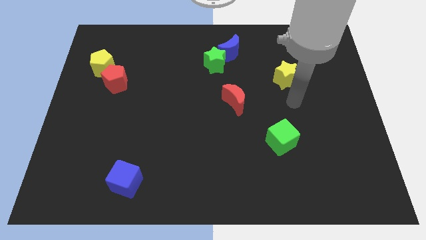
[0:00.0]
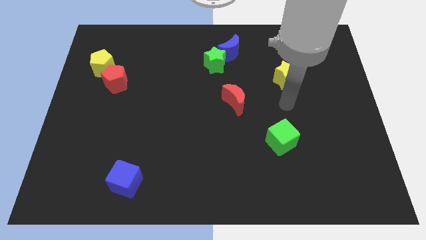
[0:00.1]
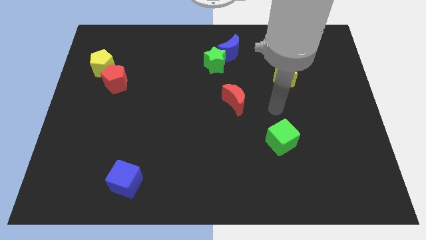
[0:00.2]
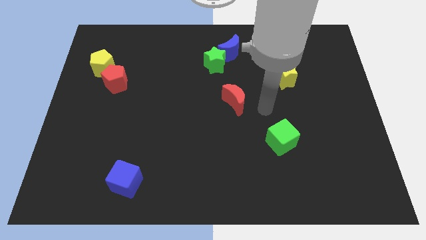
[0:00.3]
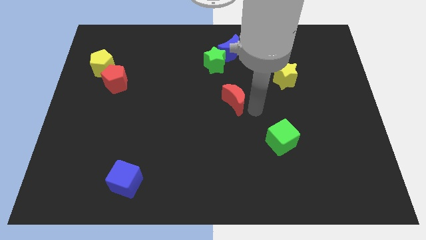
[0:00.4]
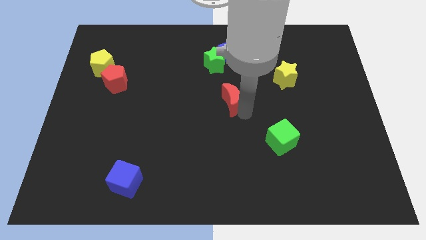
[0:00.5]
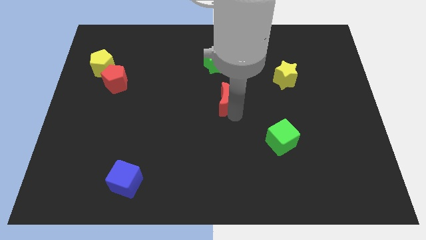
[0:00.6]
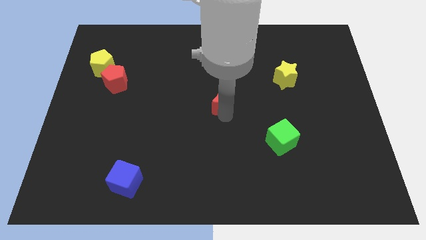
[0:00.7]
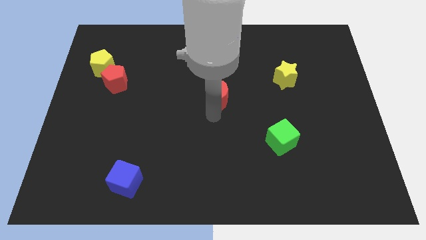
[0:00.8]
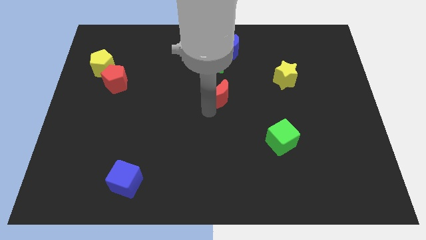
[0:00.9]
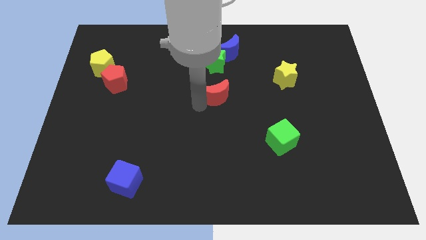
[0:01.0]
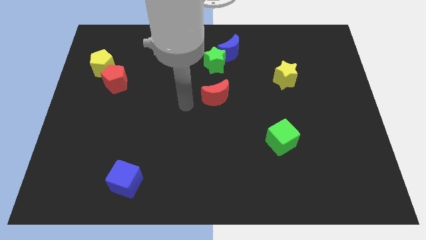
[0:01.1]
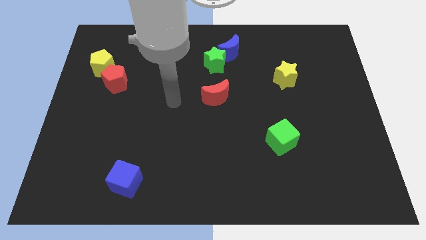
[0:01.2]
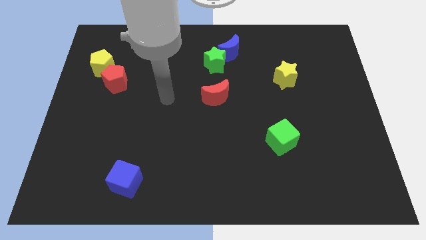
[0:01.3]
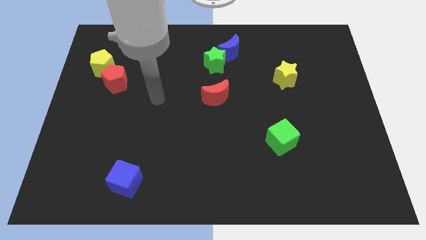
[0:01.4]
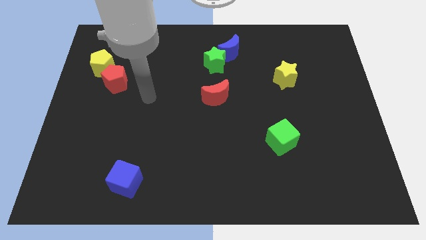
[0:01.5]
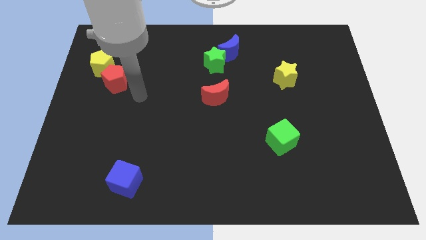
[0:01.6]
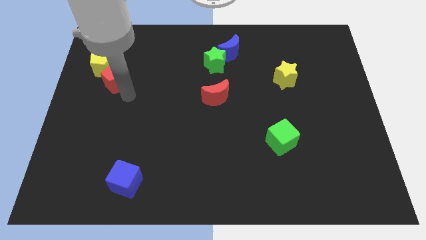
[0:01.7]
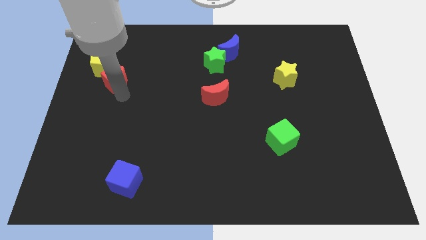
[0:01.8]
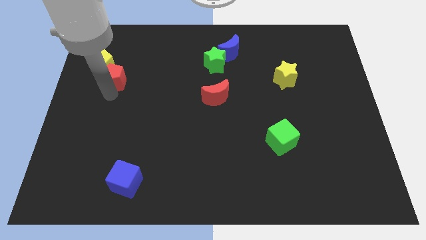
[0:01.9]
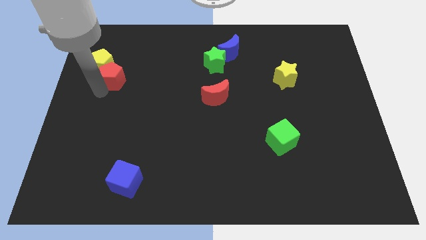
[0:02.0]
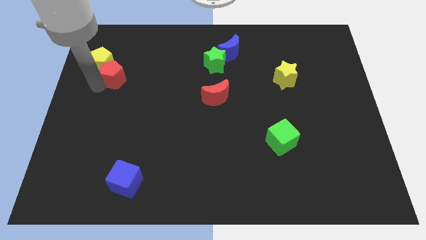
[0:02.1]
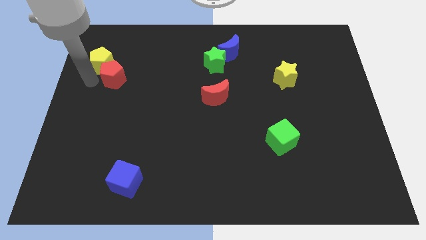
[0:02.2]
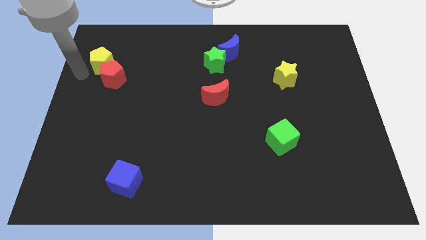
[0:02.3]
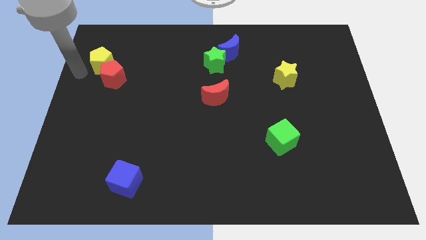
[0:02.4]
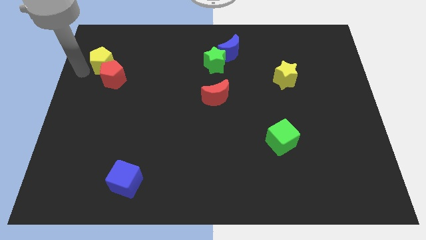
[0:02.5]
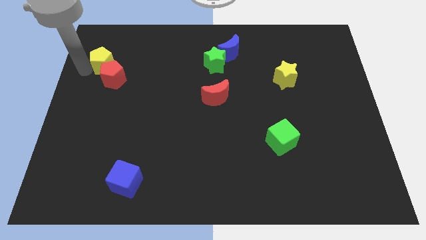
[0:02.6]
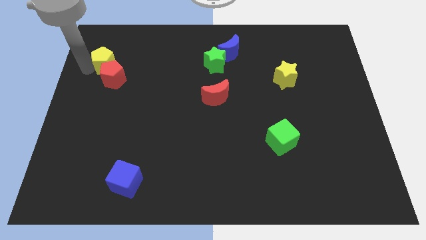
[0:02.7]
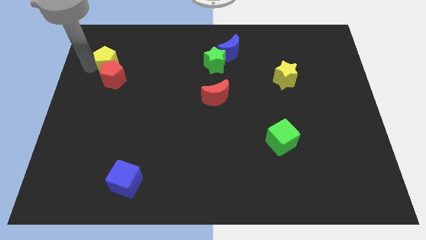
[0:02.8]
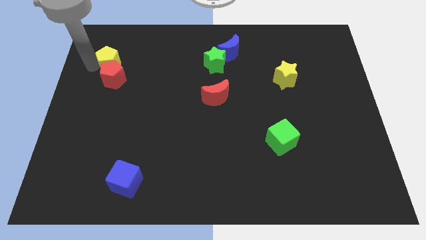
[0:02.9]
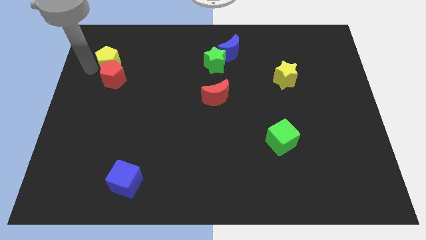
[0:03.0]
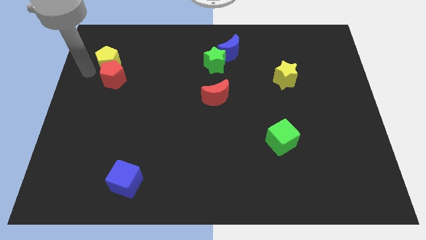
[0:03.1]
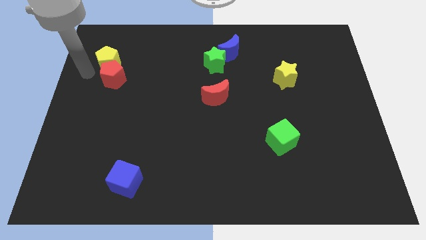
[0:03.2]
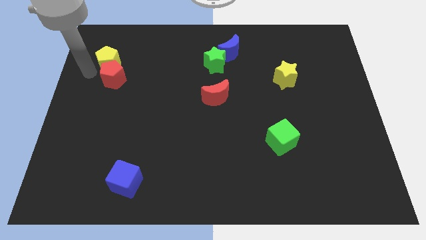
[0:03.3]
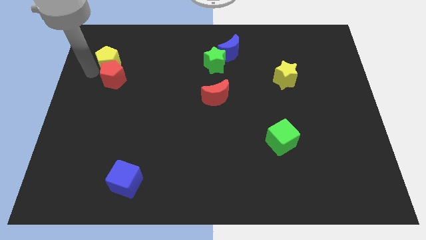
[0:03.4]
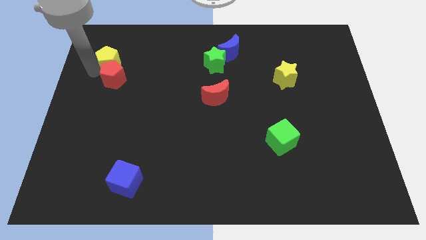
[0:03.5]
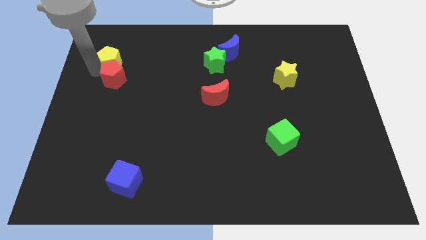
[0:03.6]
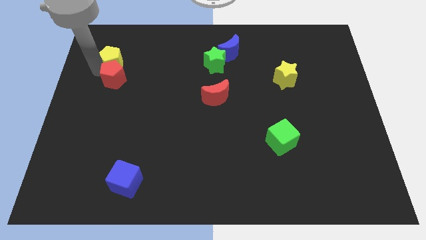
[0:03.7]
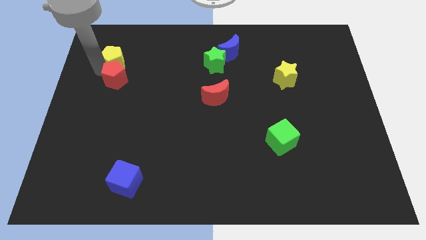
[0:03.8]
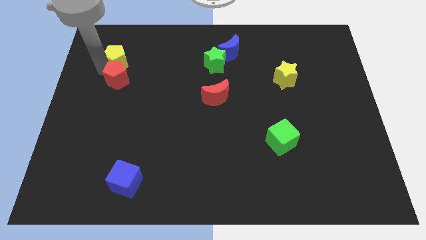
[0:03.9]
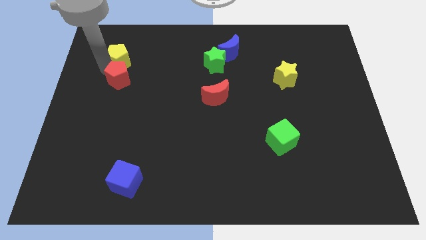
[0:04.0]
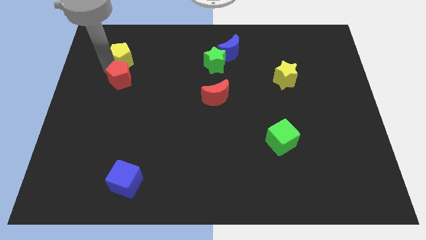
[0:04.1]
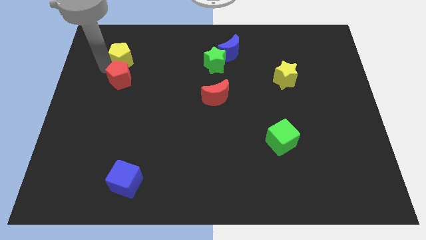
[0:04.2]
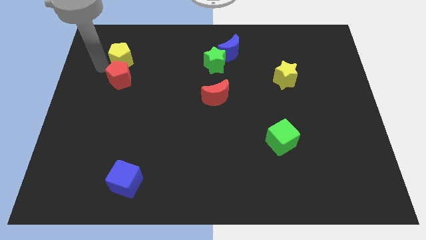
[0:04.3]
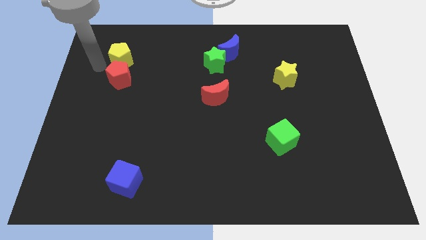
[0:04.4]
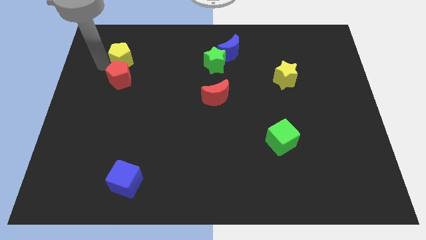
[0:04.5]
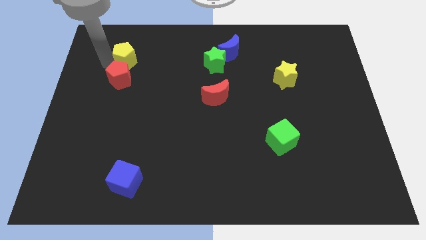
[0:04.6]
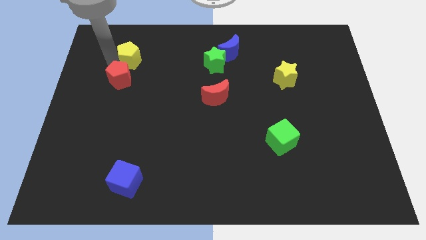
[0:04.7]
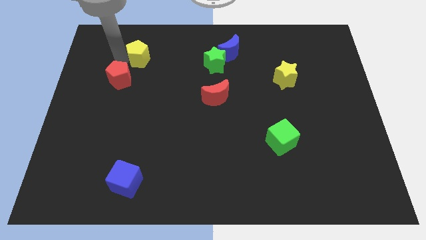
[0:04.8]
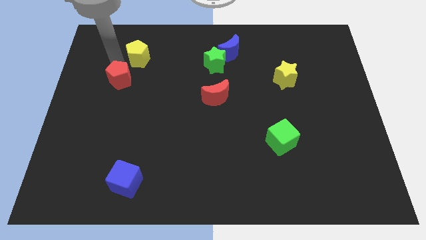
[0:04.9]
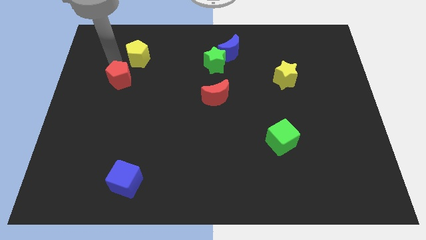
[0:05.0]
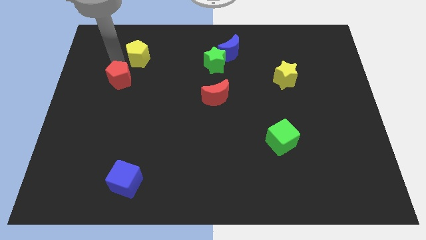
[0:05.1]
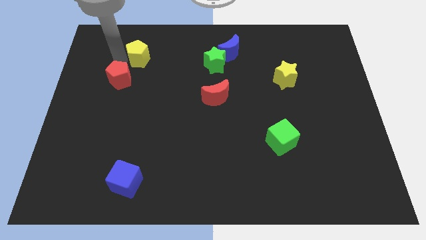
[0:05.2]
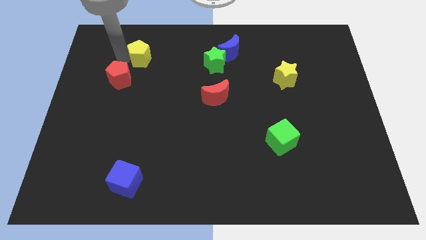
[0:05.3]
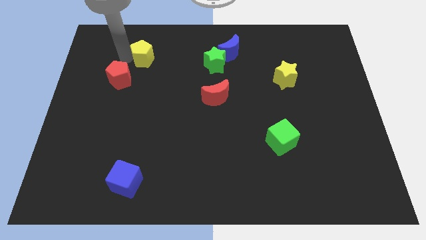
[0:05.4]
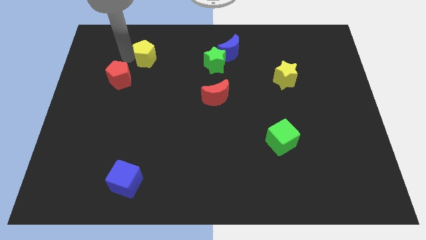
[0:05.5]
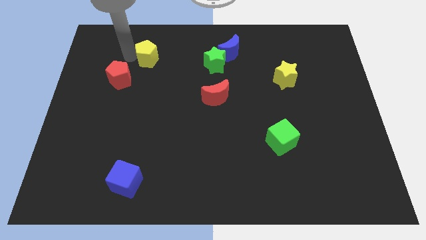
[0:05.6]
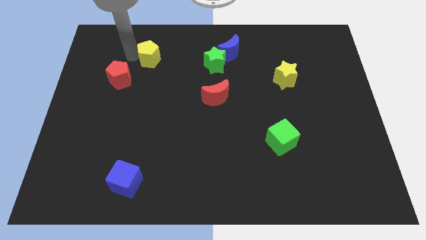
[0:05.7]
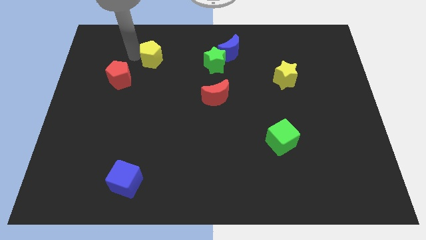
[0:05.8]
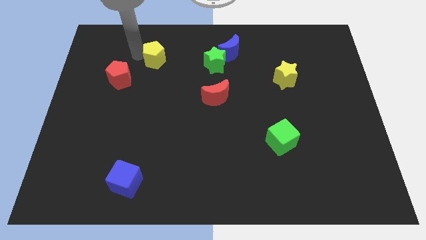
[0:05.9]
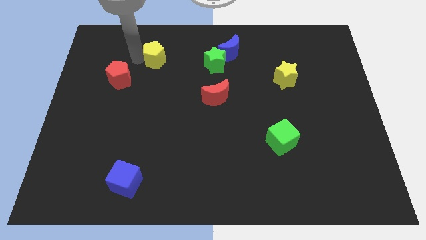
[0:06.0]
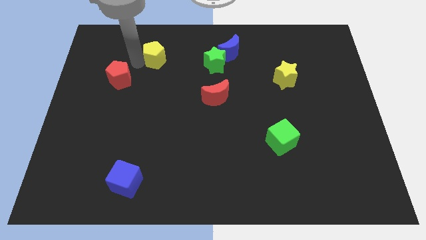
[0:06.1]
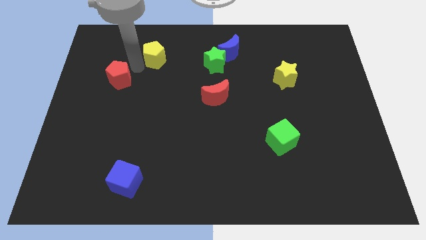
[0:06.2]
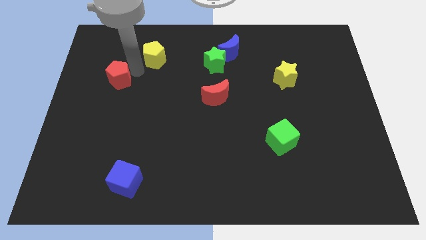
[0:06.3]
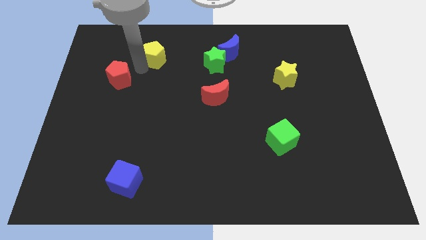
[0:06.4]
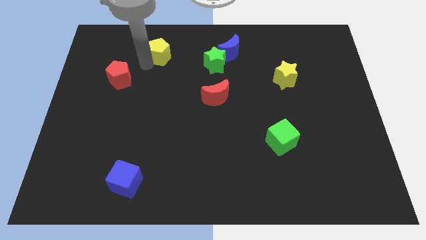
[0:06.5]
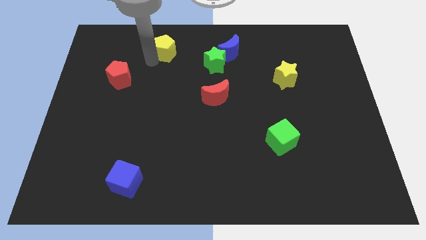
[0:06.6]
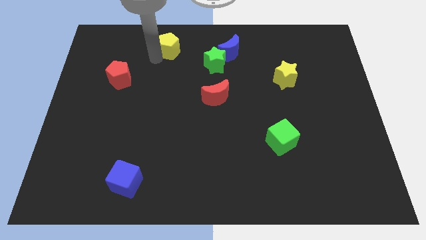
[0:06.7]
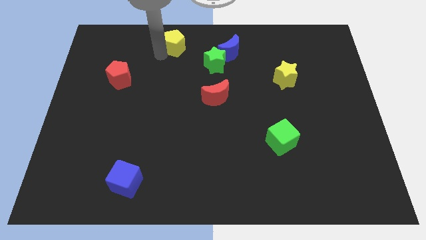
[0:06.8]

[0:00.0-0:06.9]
push the yellow pentagon to the top
